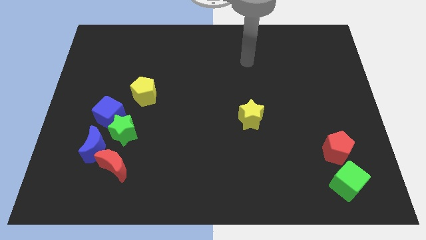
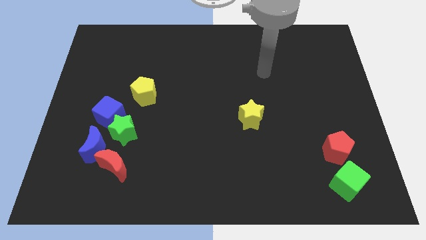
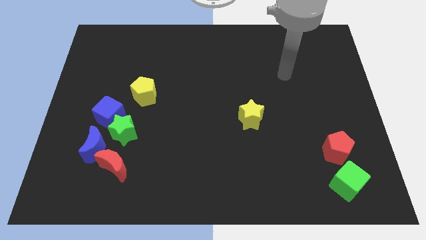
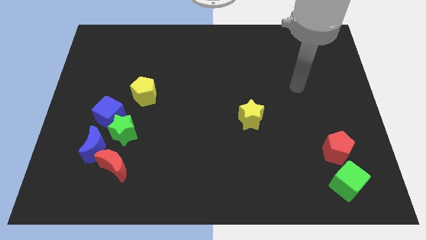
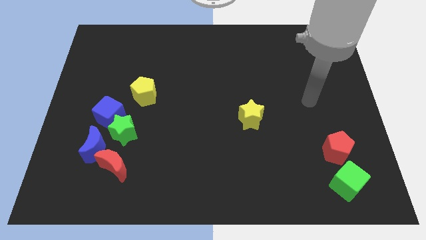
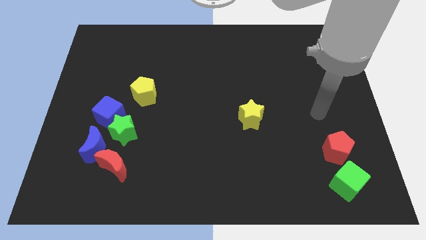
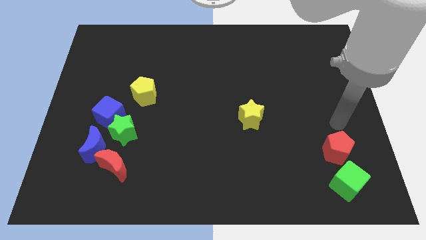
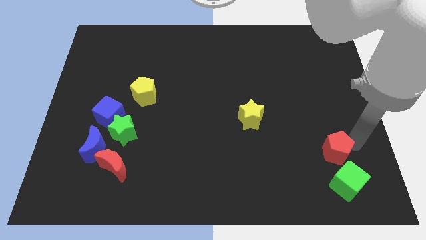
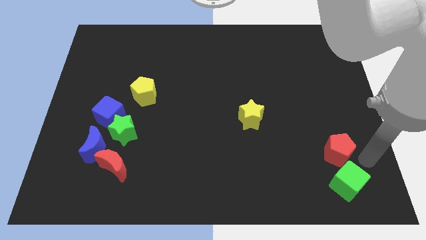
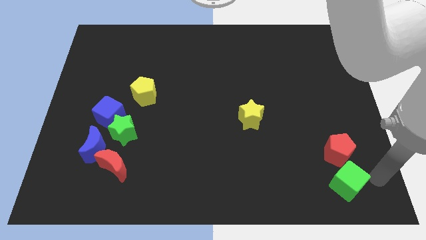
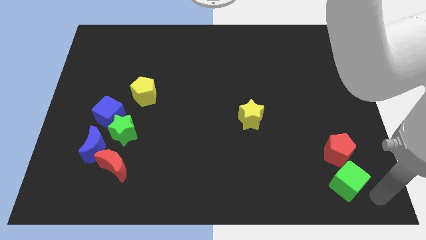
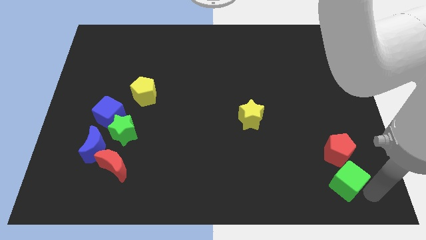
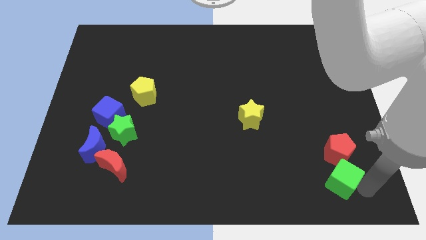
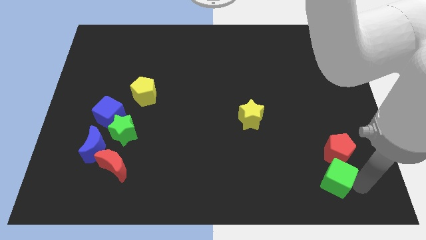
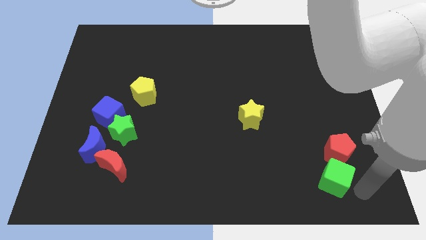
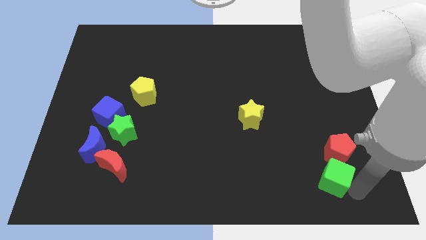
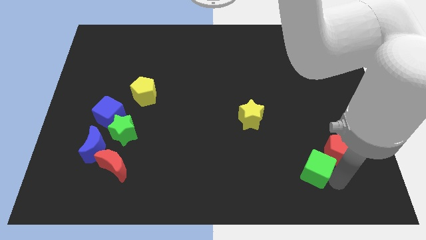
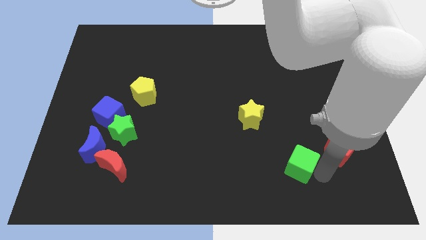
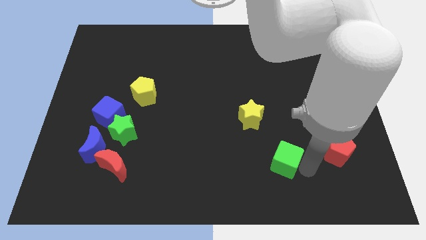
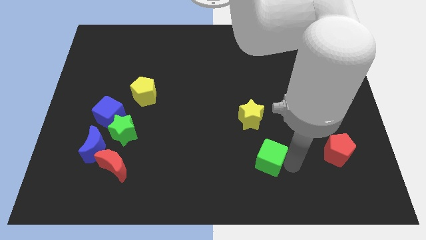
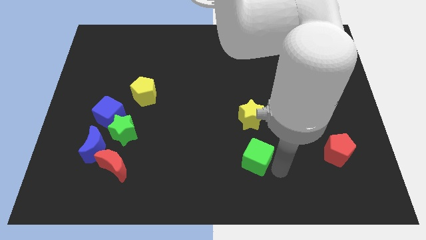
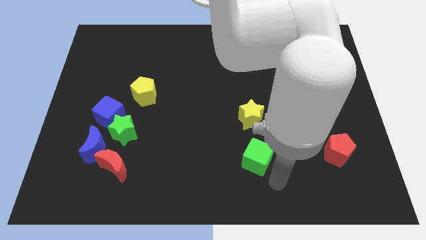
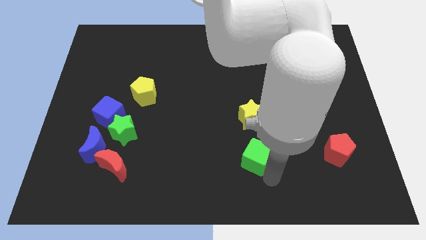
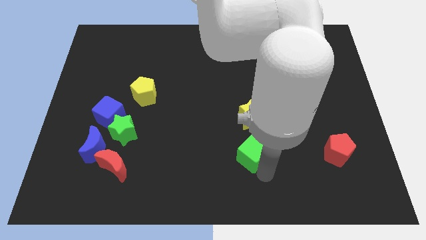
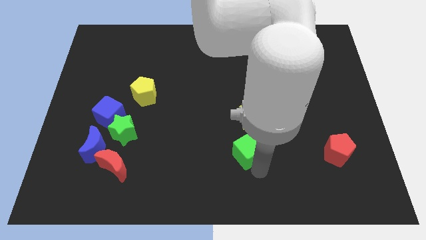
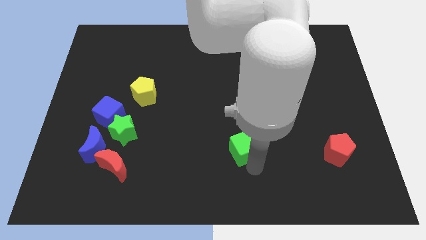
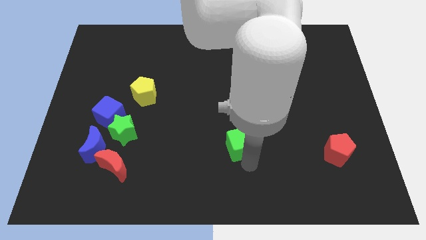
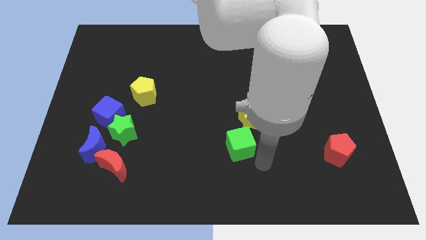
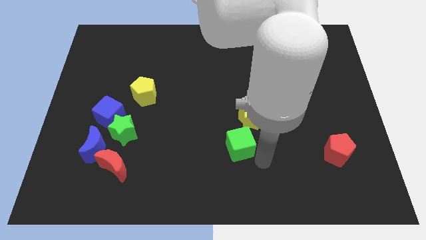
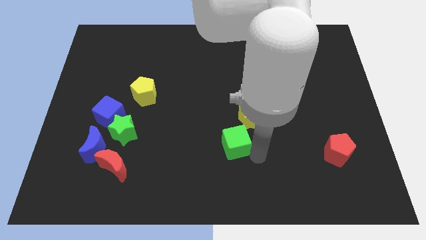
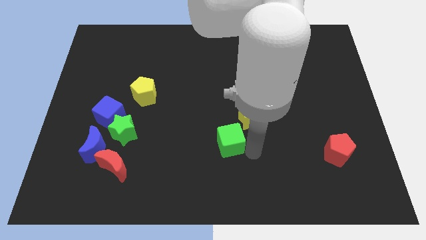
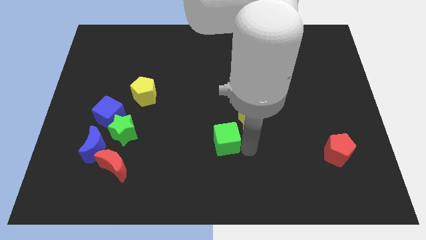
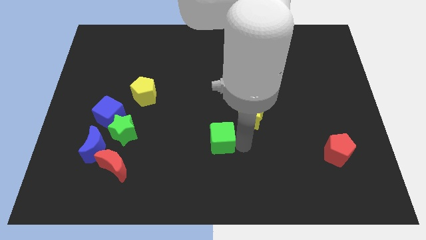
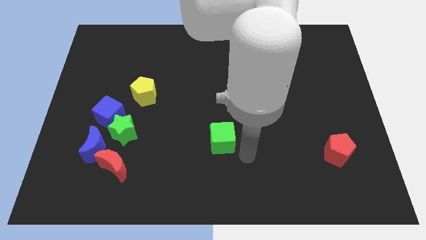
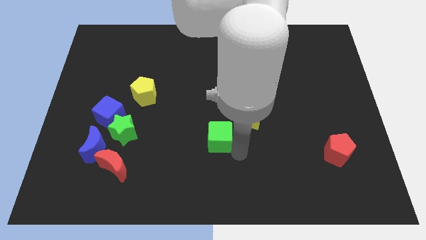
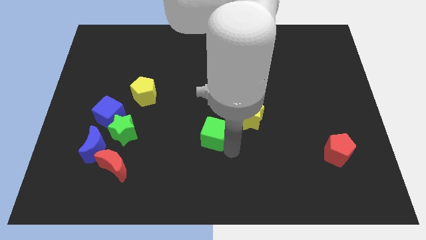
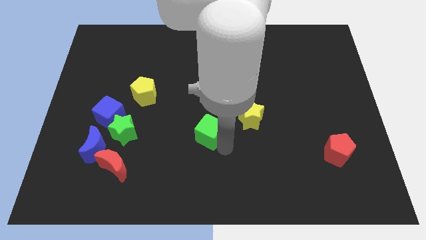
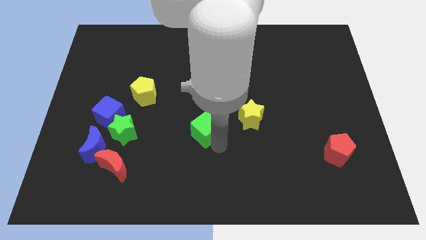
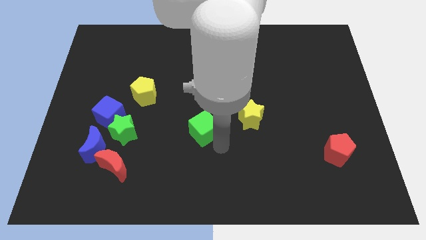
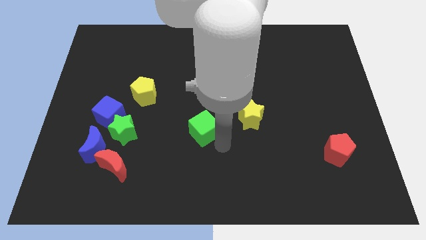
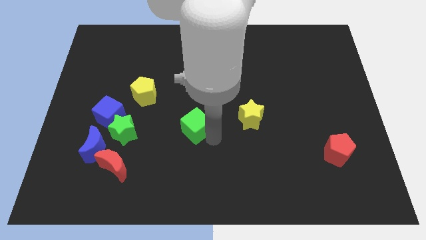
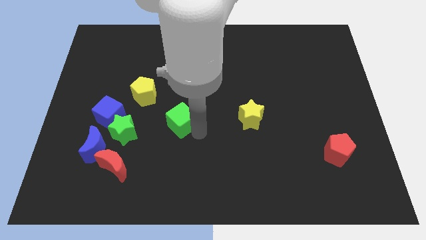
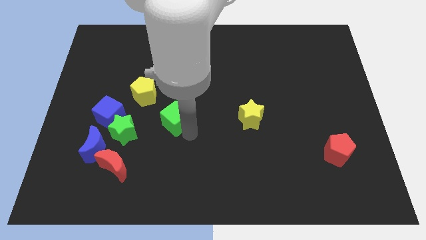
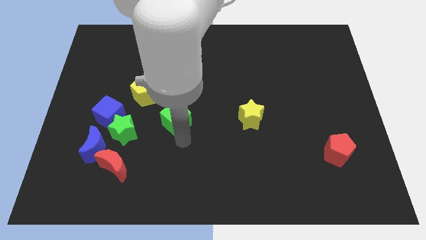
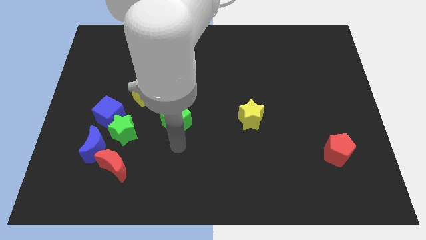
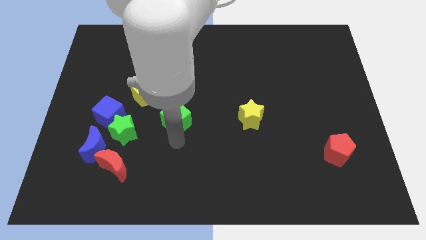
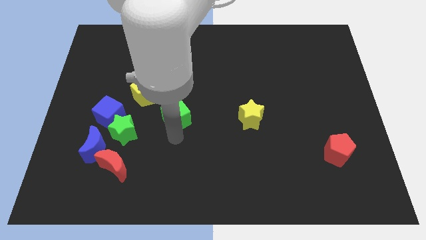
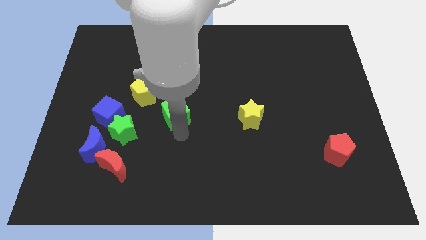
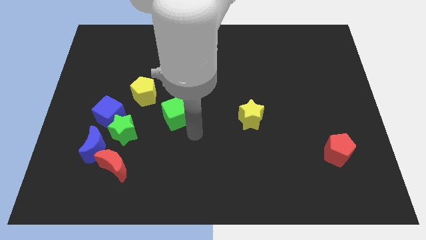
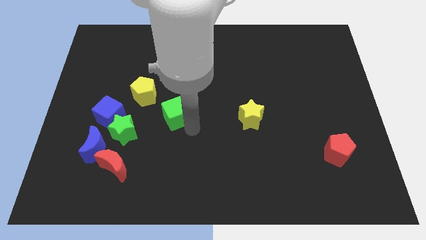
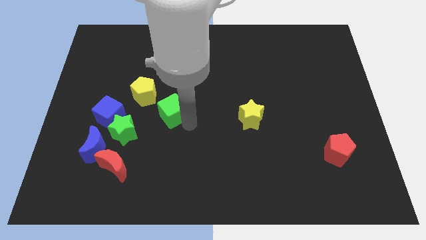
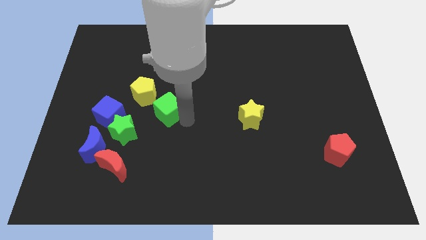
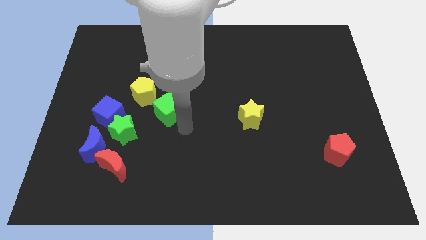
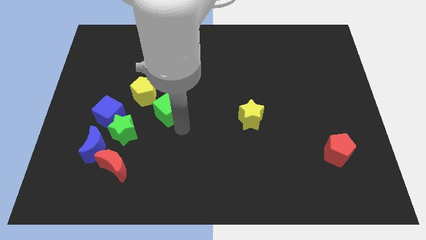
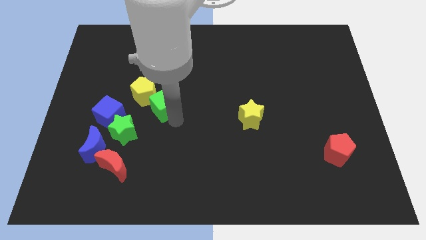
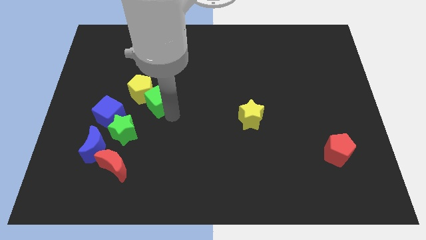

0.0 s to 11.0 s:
move the green cube towards the yellow pentagon
